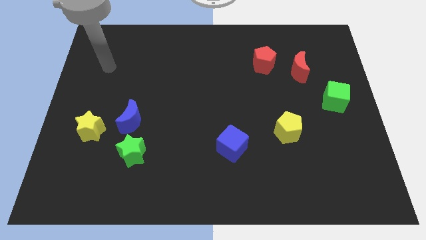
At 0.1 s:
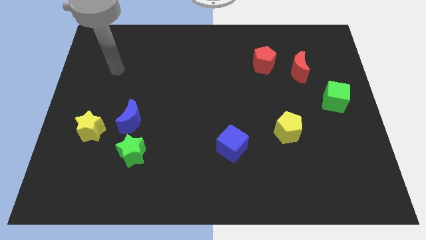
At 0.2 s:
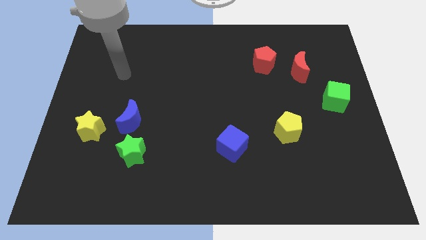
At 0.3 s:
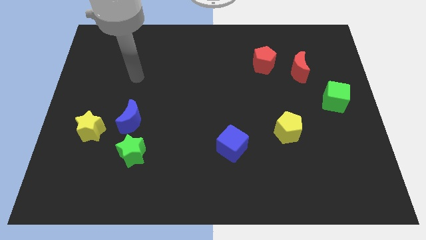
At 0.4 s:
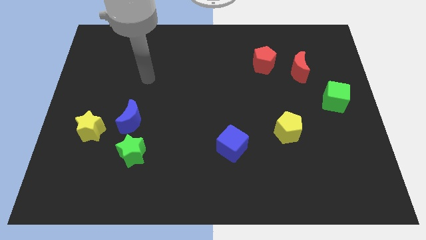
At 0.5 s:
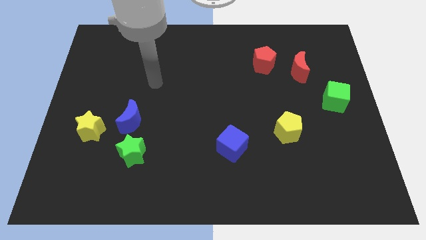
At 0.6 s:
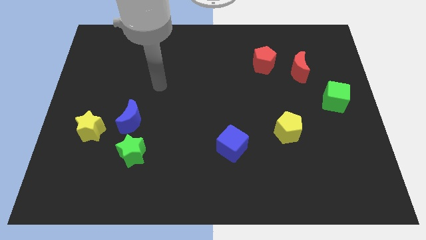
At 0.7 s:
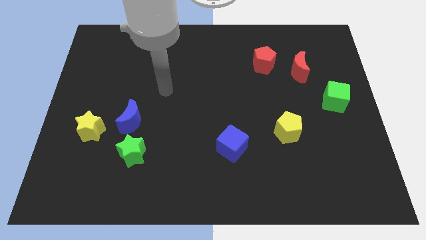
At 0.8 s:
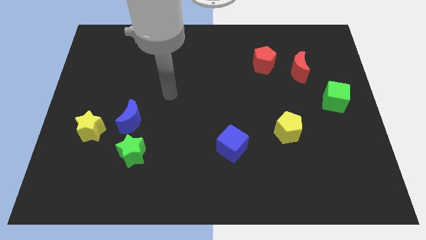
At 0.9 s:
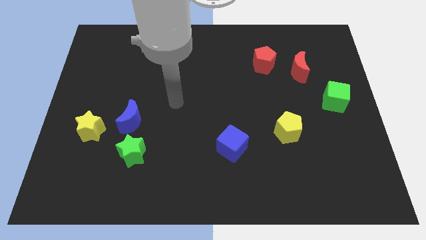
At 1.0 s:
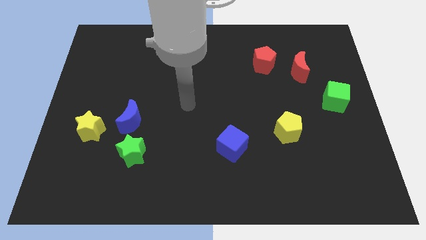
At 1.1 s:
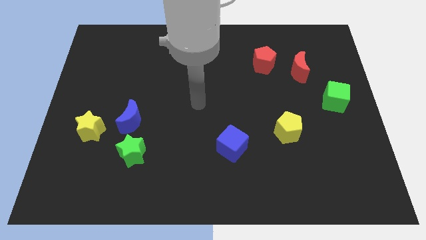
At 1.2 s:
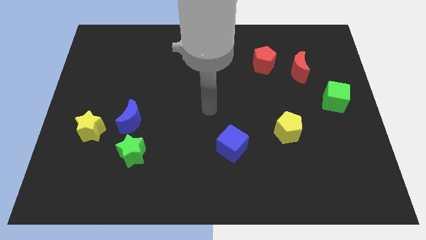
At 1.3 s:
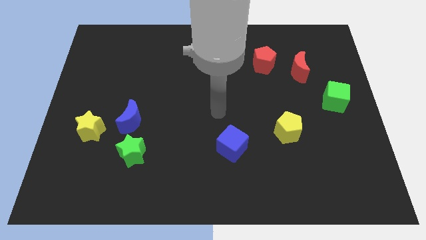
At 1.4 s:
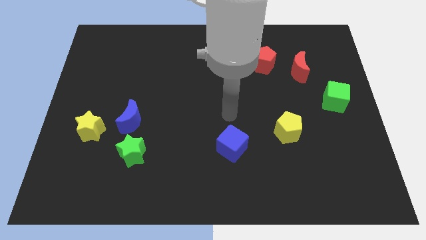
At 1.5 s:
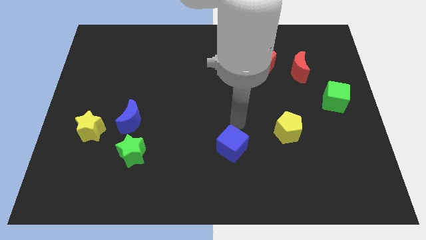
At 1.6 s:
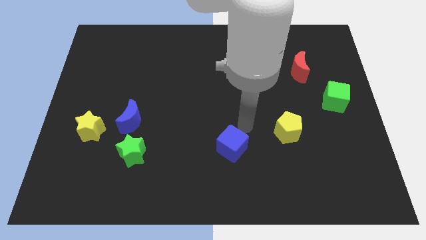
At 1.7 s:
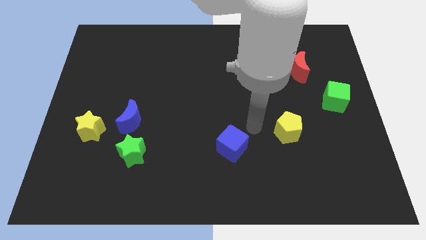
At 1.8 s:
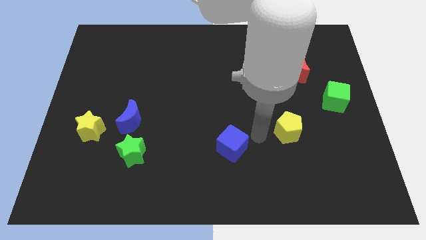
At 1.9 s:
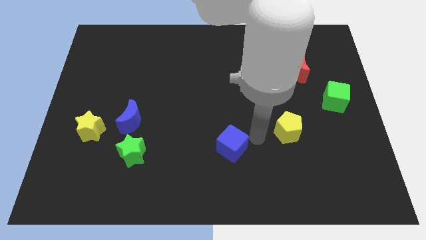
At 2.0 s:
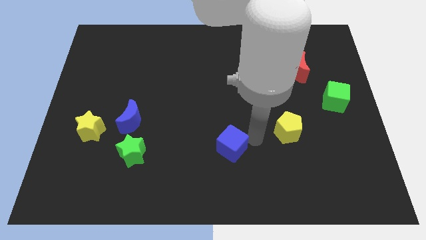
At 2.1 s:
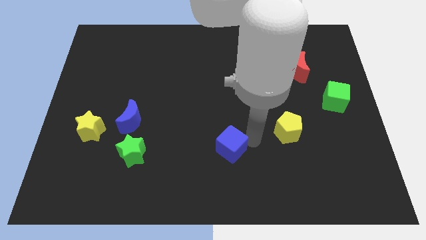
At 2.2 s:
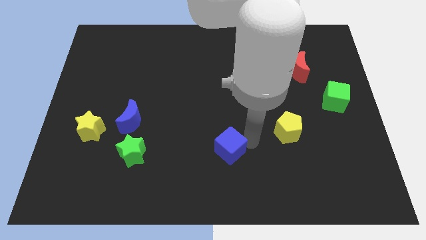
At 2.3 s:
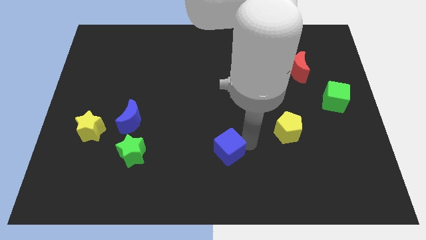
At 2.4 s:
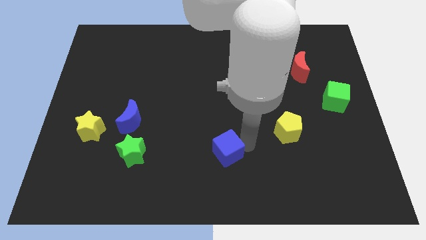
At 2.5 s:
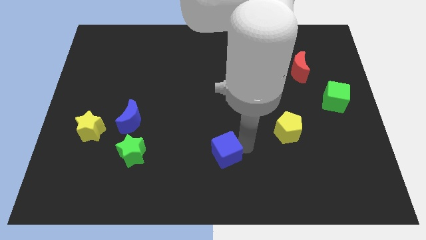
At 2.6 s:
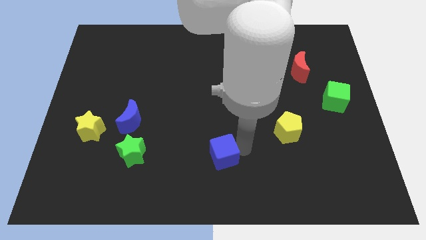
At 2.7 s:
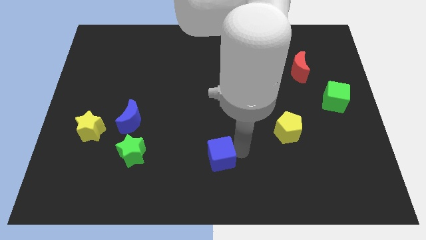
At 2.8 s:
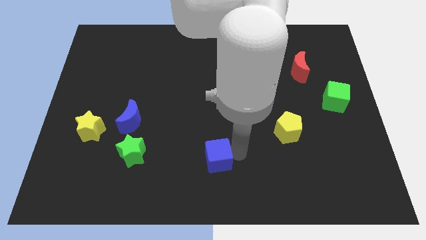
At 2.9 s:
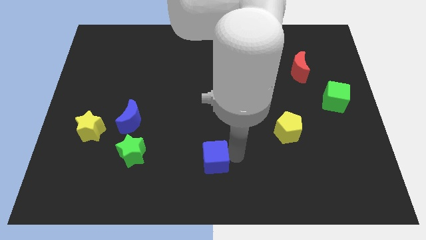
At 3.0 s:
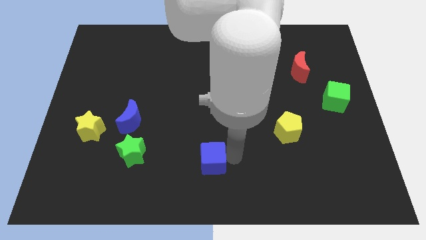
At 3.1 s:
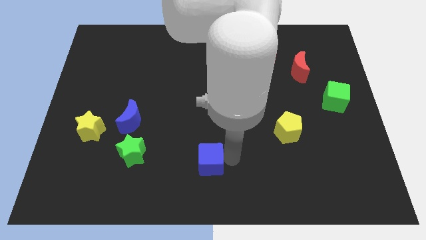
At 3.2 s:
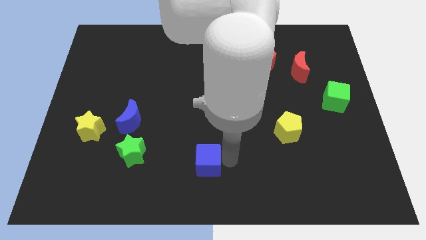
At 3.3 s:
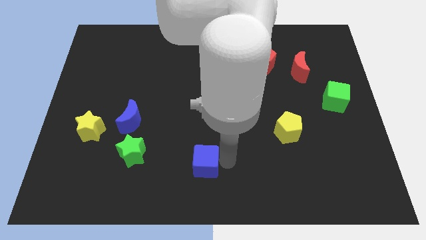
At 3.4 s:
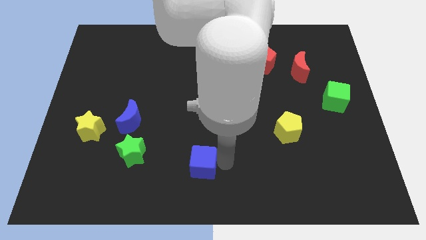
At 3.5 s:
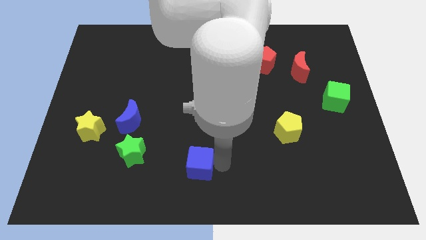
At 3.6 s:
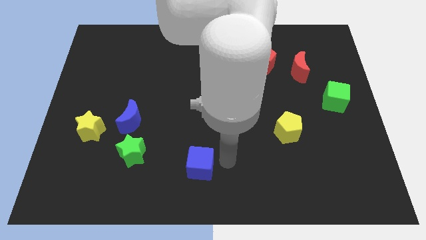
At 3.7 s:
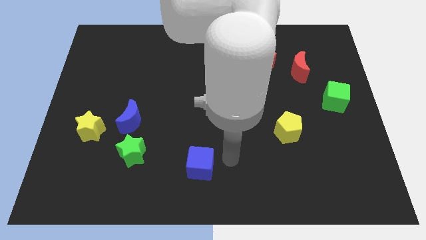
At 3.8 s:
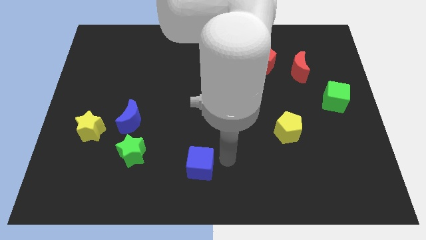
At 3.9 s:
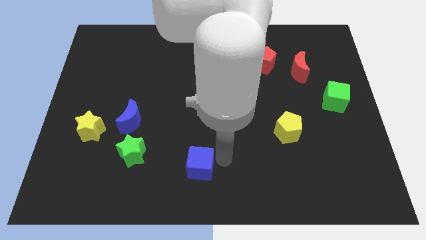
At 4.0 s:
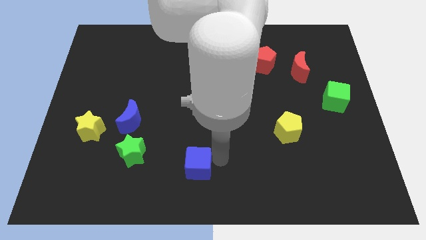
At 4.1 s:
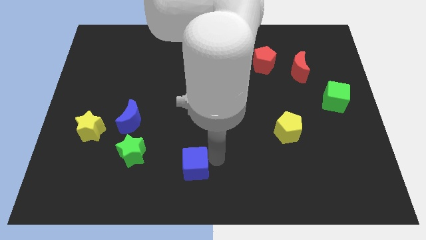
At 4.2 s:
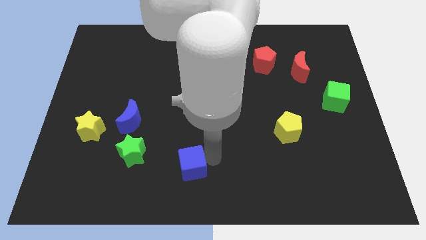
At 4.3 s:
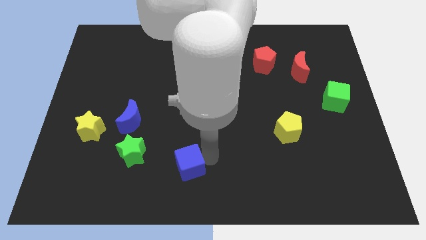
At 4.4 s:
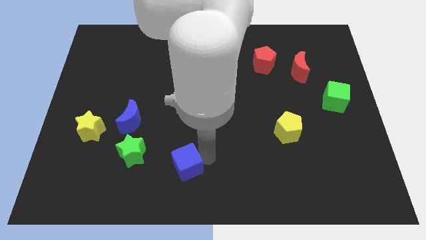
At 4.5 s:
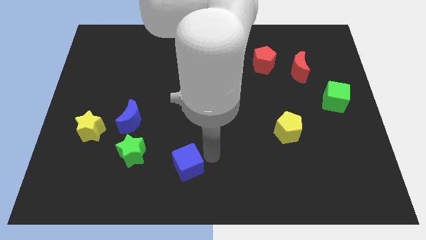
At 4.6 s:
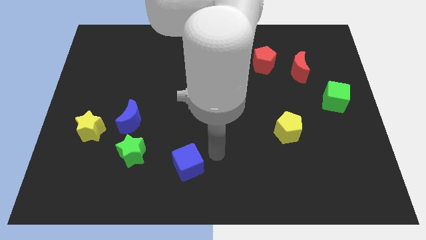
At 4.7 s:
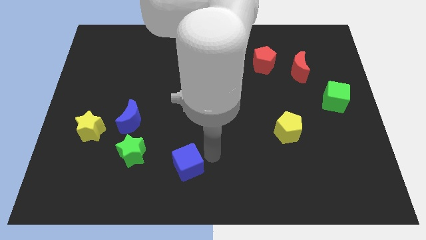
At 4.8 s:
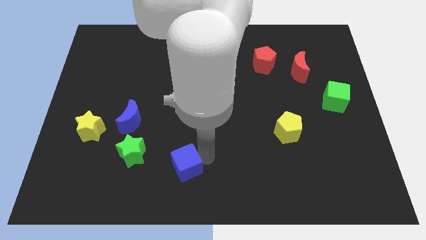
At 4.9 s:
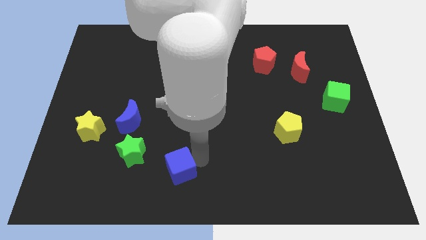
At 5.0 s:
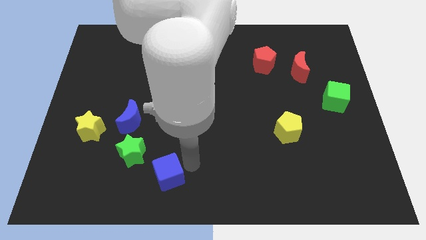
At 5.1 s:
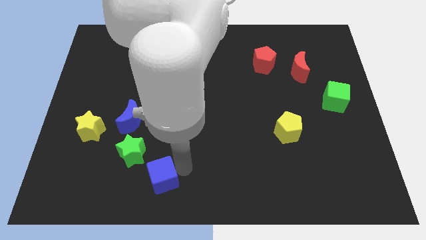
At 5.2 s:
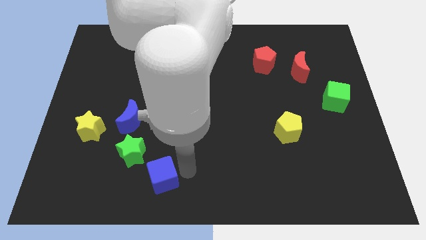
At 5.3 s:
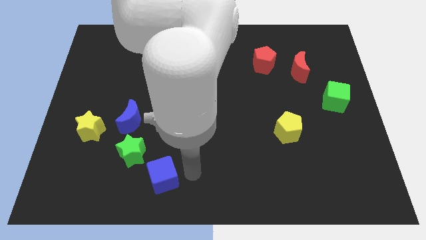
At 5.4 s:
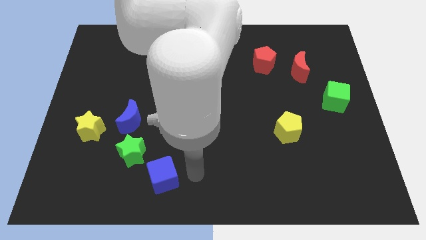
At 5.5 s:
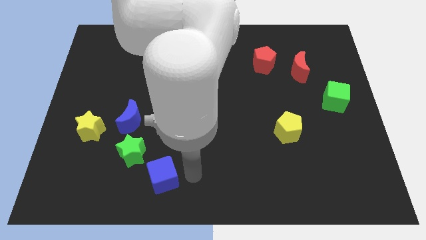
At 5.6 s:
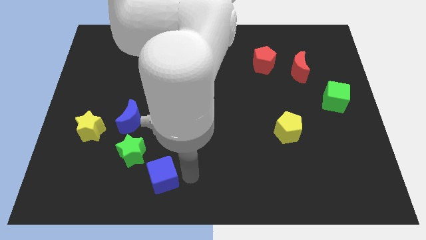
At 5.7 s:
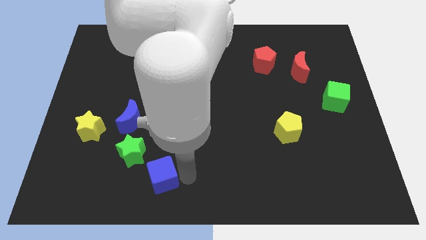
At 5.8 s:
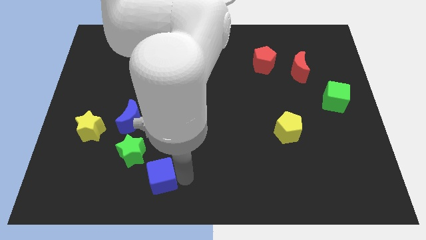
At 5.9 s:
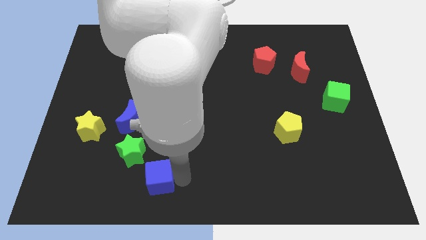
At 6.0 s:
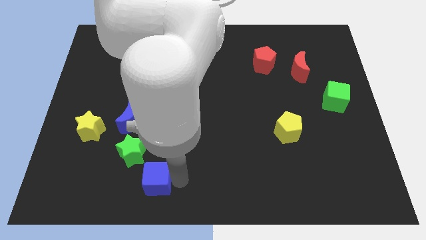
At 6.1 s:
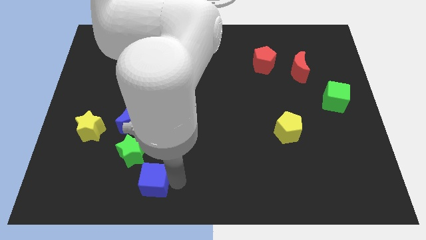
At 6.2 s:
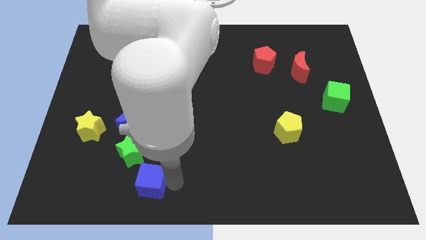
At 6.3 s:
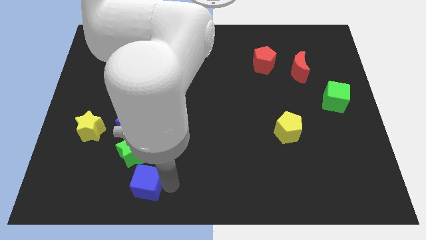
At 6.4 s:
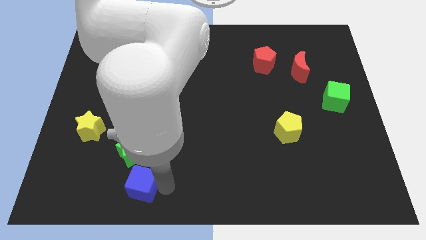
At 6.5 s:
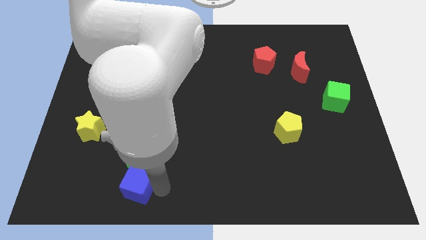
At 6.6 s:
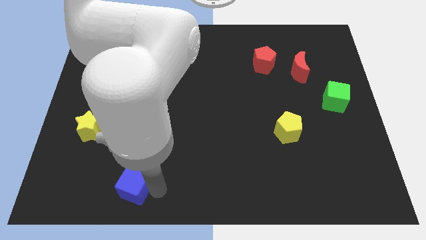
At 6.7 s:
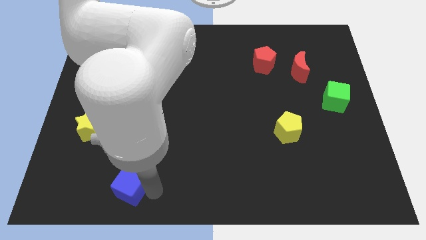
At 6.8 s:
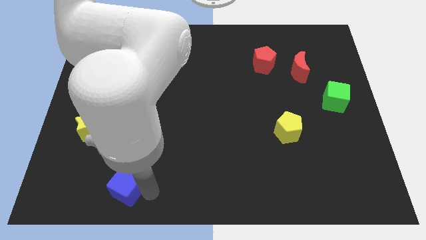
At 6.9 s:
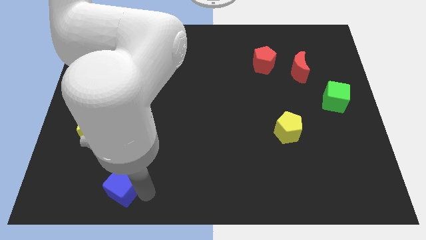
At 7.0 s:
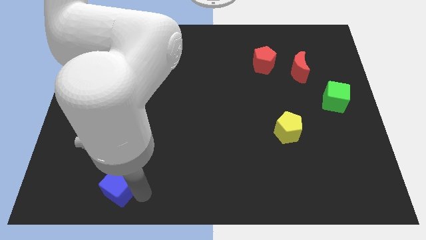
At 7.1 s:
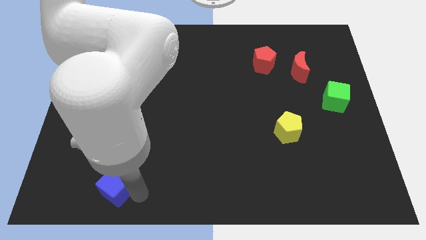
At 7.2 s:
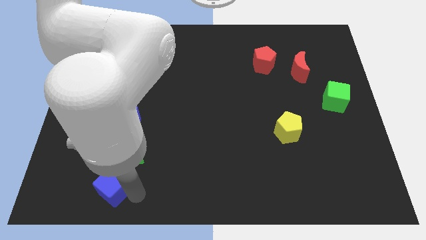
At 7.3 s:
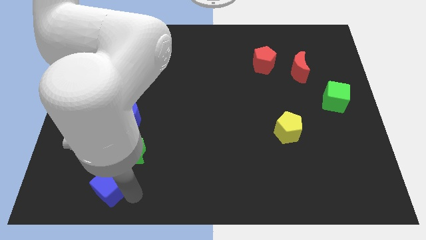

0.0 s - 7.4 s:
move the blue cube to the left

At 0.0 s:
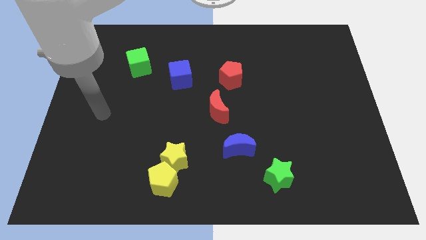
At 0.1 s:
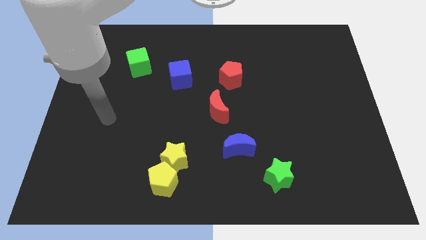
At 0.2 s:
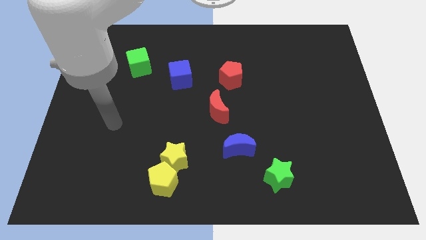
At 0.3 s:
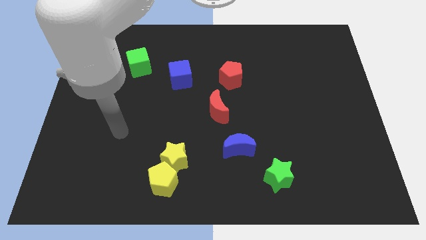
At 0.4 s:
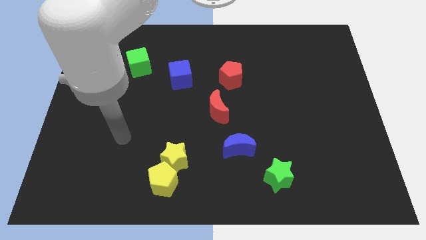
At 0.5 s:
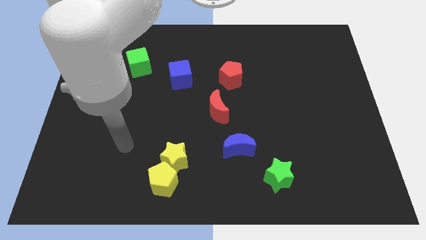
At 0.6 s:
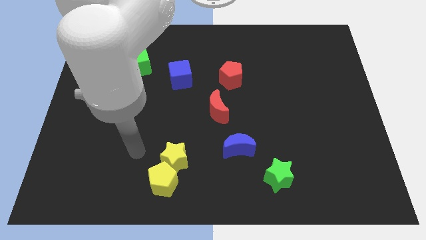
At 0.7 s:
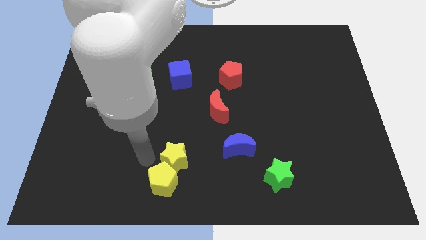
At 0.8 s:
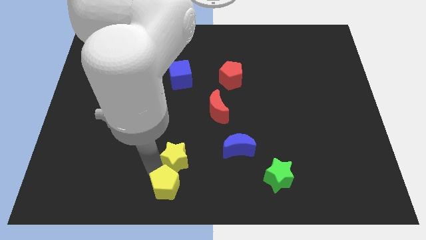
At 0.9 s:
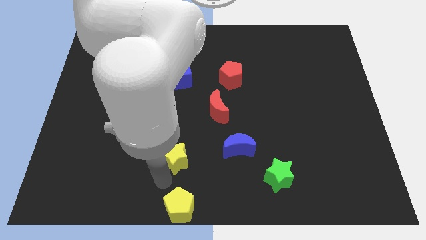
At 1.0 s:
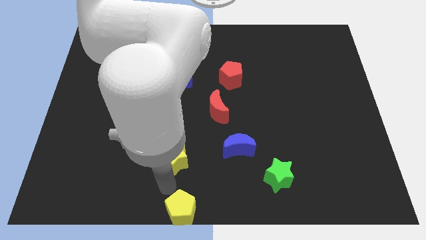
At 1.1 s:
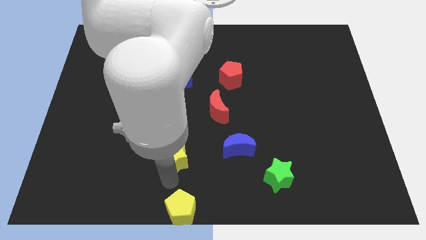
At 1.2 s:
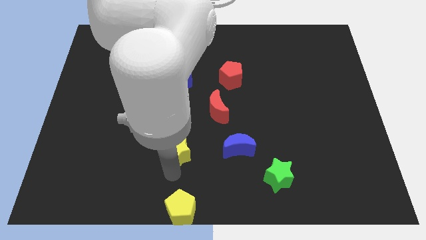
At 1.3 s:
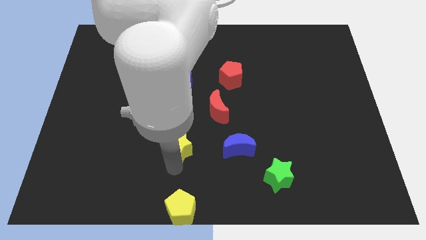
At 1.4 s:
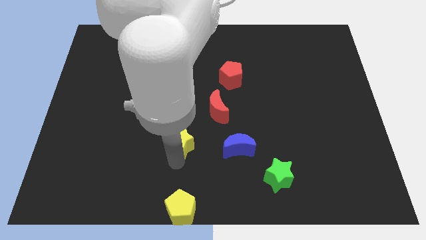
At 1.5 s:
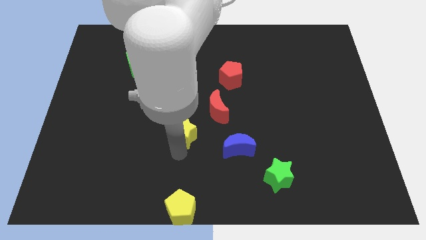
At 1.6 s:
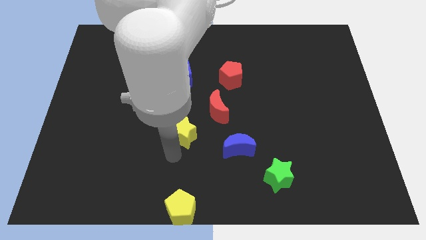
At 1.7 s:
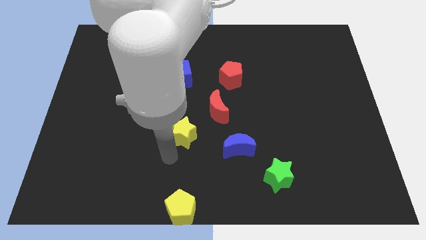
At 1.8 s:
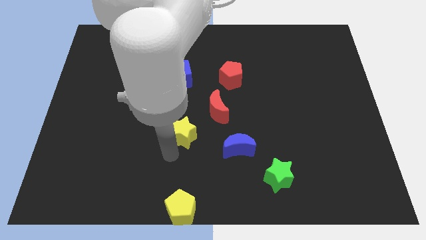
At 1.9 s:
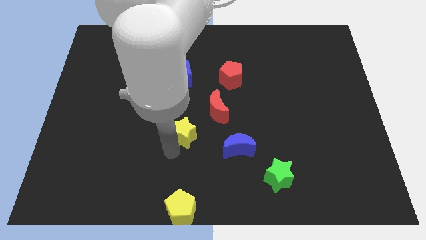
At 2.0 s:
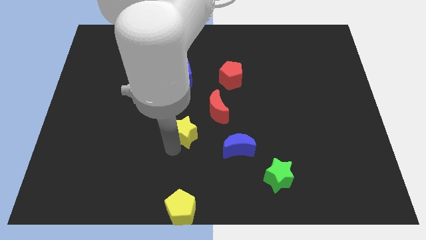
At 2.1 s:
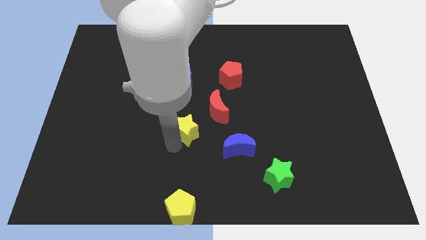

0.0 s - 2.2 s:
slide the yellow star a bit upwards
